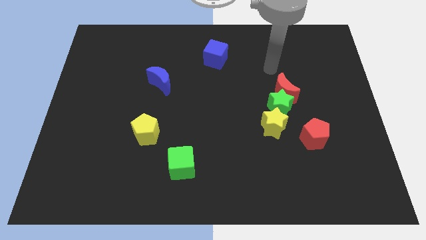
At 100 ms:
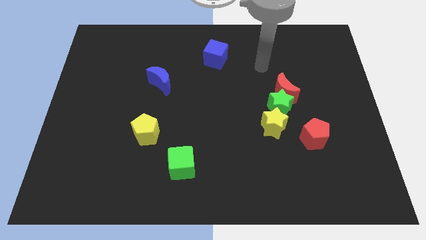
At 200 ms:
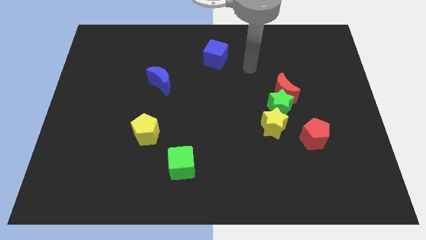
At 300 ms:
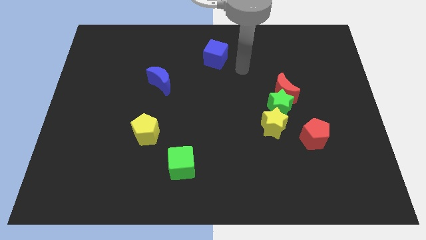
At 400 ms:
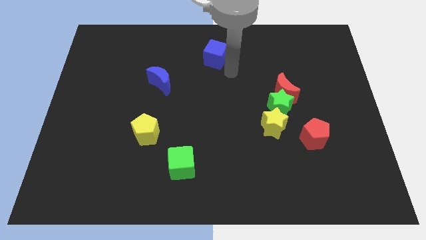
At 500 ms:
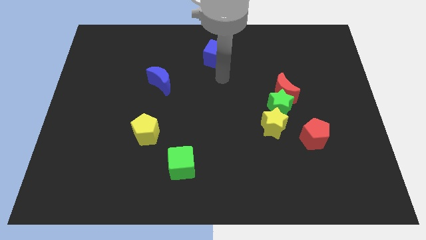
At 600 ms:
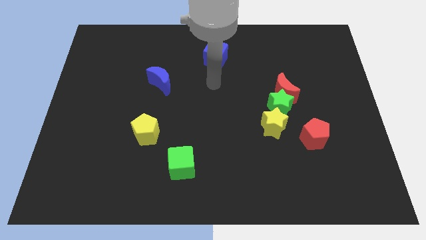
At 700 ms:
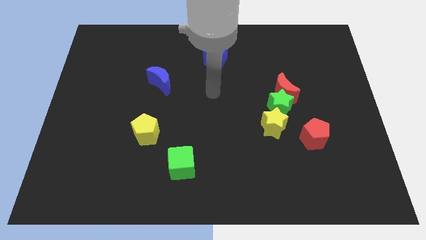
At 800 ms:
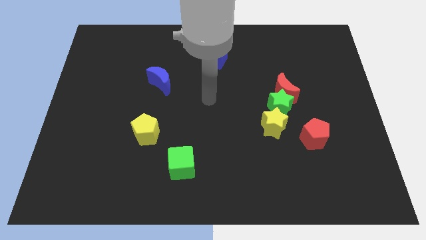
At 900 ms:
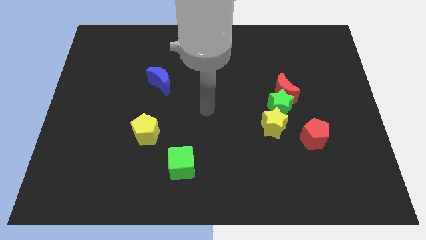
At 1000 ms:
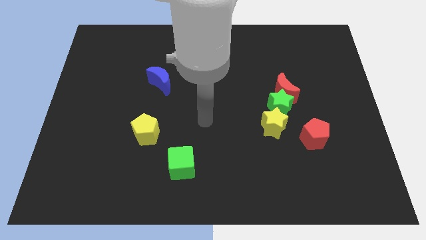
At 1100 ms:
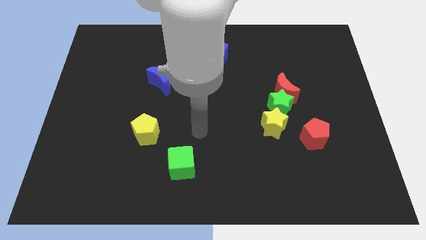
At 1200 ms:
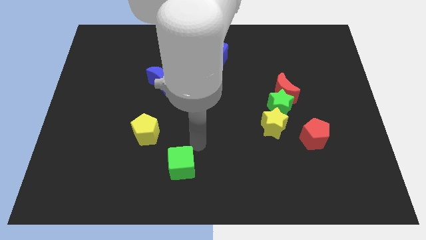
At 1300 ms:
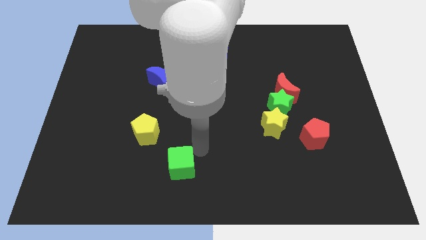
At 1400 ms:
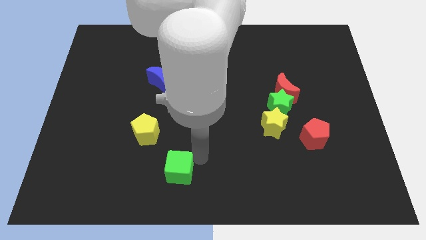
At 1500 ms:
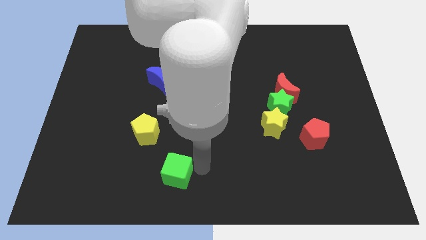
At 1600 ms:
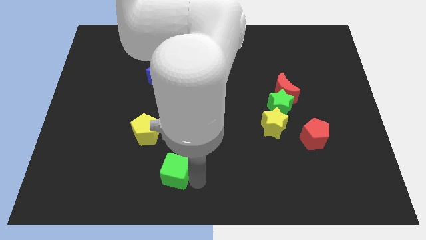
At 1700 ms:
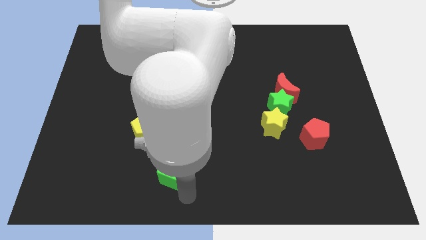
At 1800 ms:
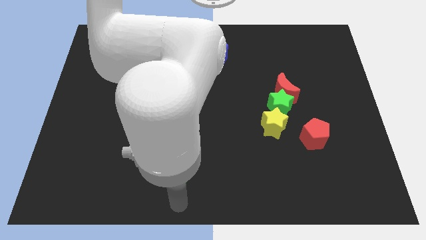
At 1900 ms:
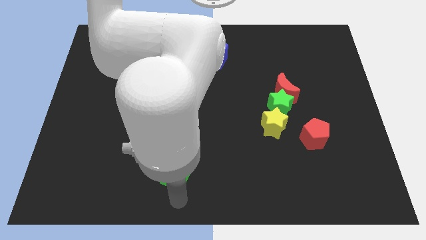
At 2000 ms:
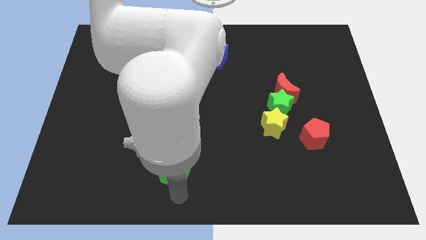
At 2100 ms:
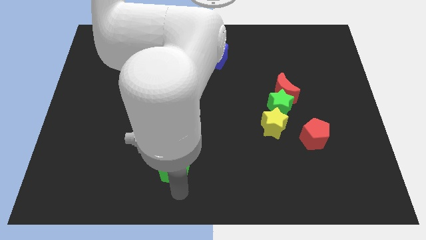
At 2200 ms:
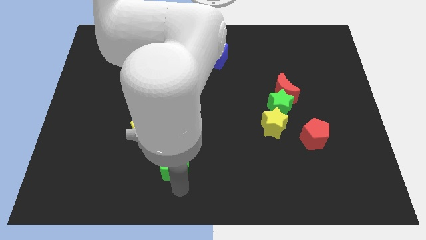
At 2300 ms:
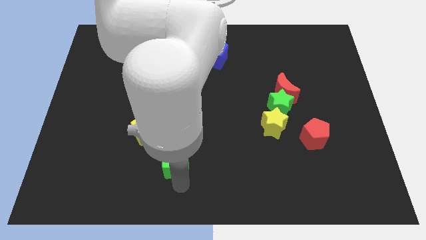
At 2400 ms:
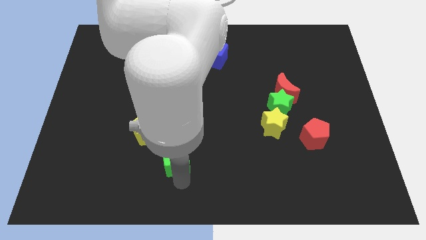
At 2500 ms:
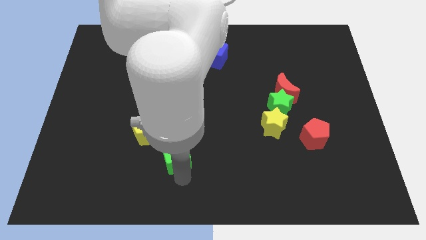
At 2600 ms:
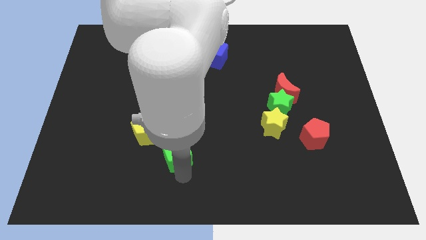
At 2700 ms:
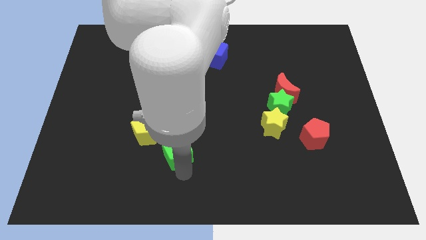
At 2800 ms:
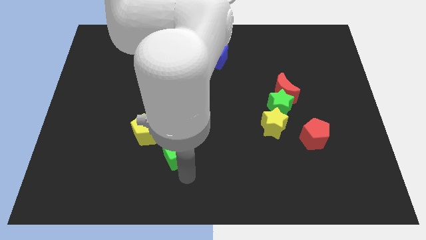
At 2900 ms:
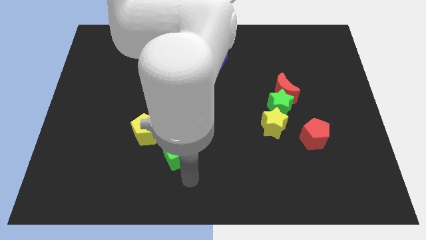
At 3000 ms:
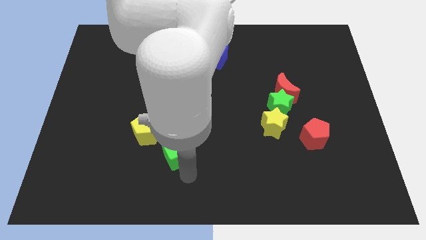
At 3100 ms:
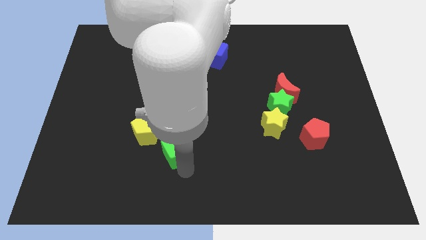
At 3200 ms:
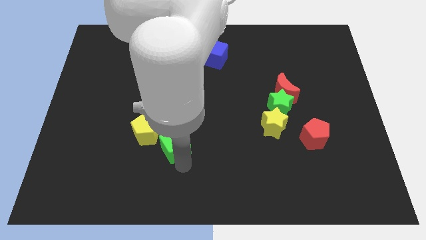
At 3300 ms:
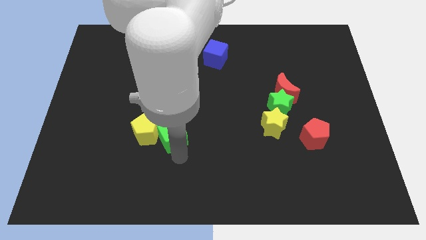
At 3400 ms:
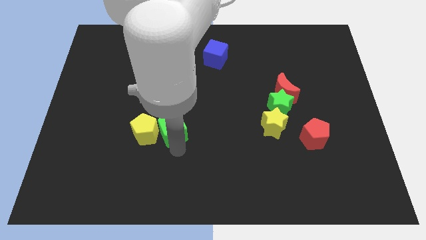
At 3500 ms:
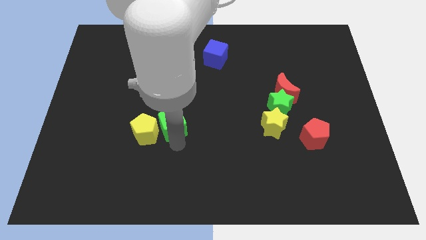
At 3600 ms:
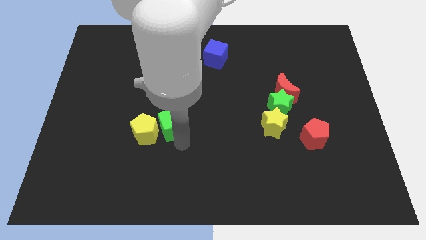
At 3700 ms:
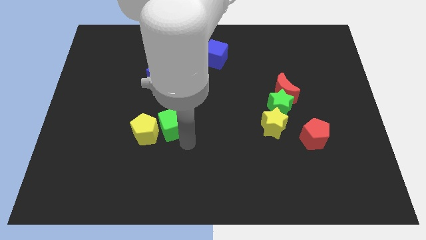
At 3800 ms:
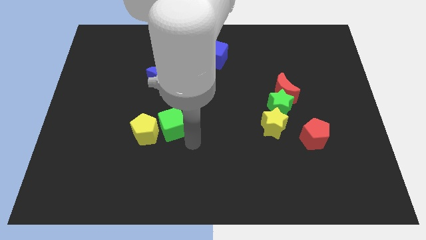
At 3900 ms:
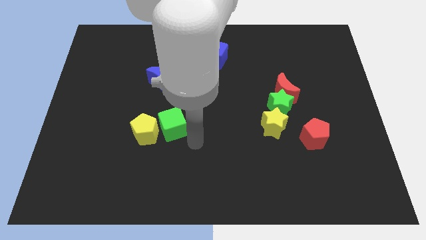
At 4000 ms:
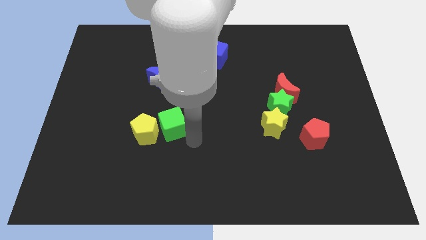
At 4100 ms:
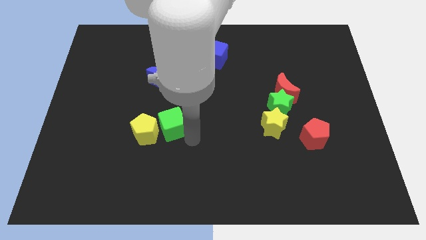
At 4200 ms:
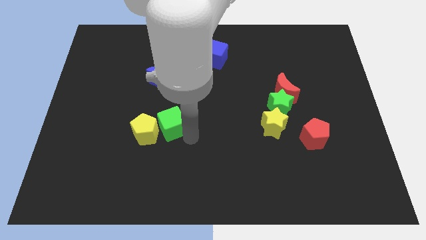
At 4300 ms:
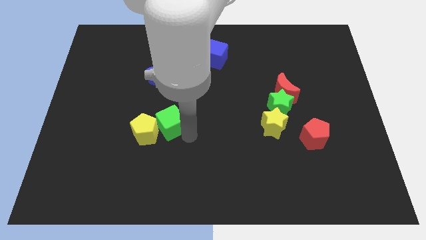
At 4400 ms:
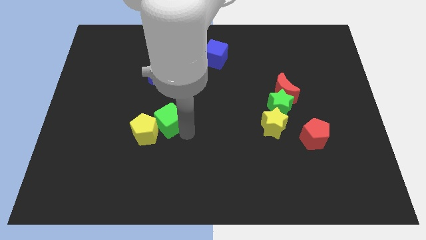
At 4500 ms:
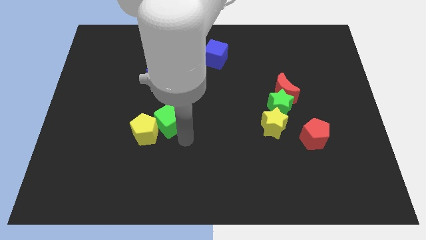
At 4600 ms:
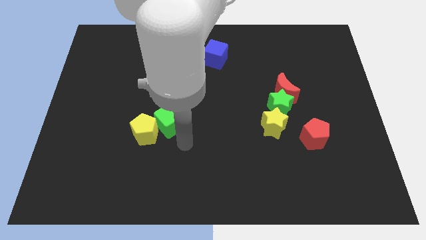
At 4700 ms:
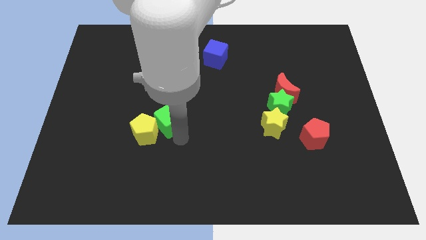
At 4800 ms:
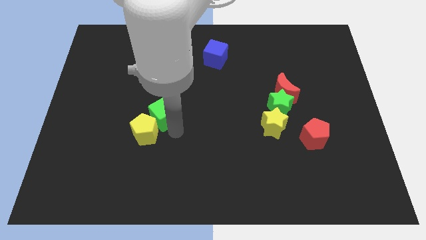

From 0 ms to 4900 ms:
slide the green cube above the yellow pentagon

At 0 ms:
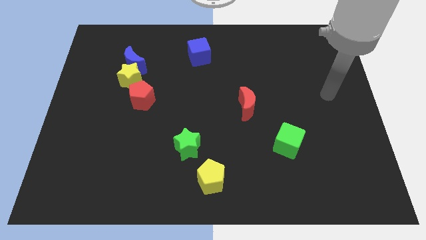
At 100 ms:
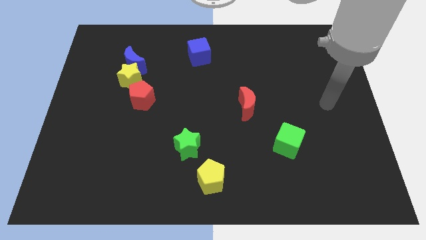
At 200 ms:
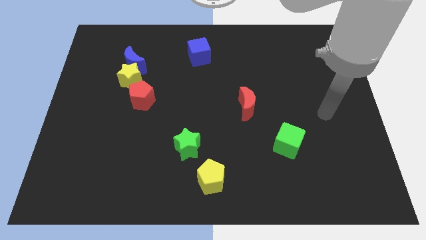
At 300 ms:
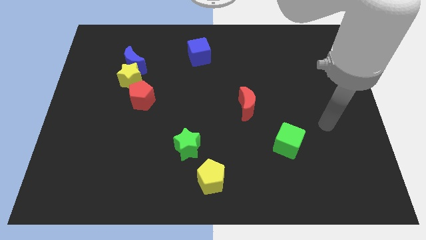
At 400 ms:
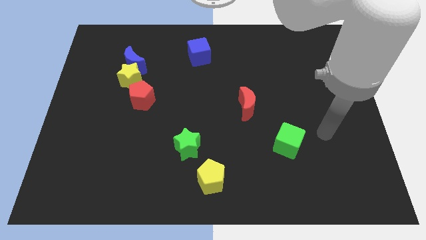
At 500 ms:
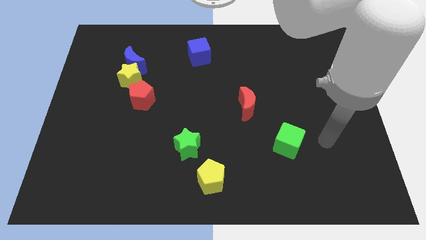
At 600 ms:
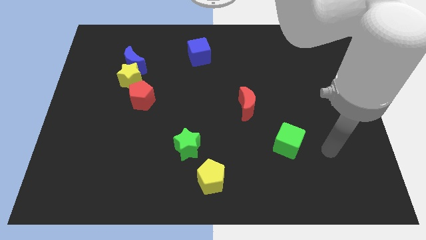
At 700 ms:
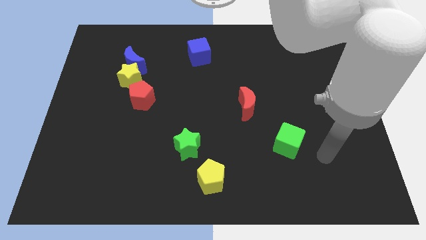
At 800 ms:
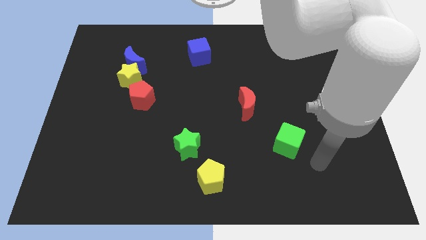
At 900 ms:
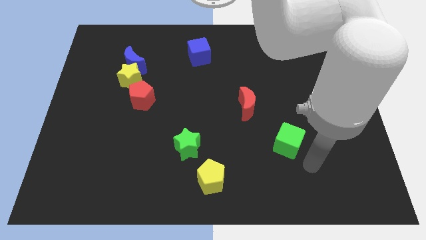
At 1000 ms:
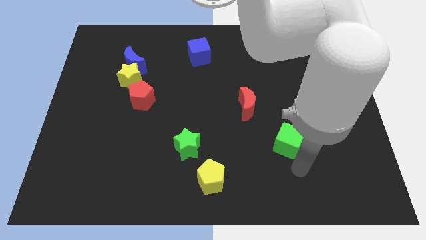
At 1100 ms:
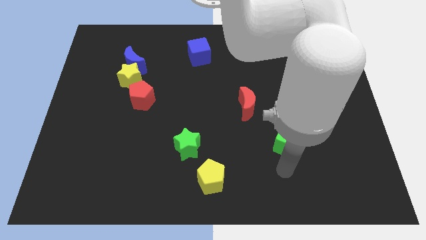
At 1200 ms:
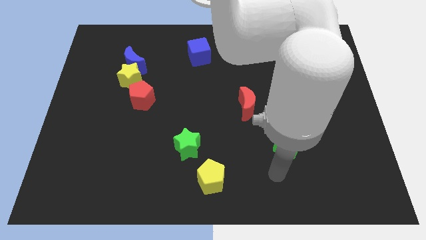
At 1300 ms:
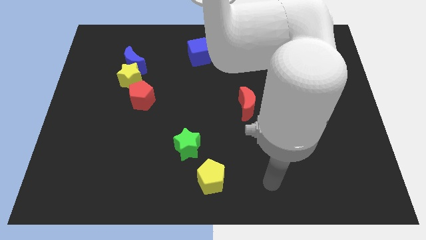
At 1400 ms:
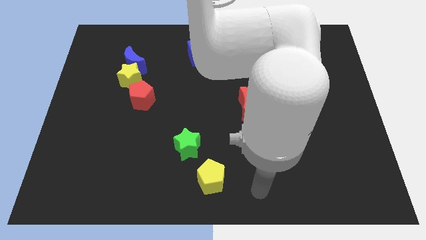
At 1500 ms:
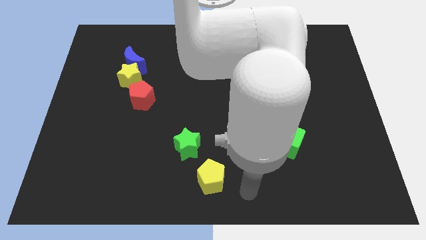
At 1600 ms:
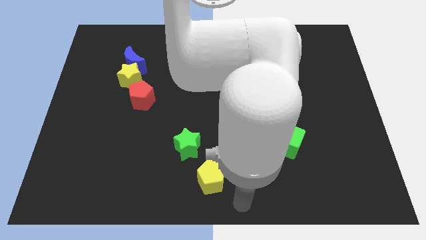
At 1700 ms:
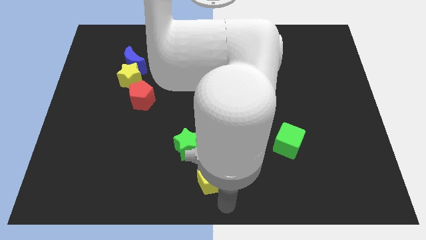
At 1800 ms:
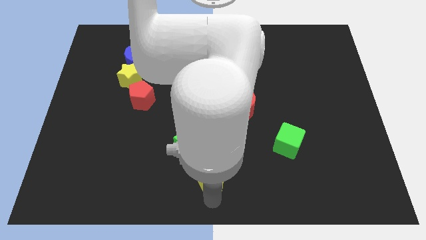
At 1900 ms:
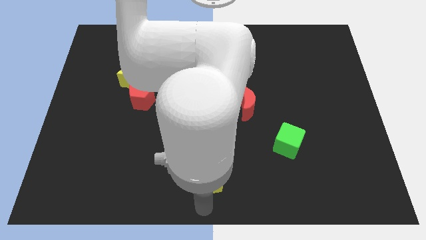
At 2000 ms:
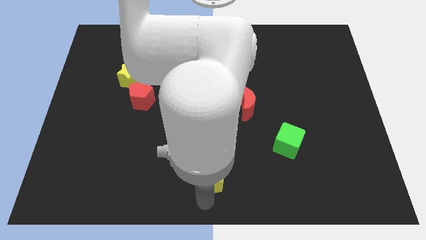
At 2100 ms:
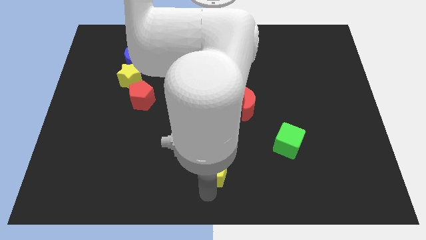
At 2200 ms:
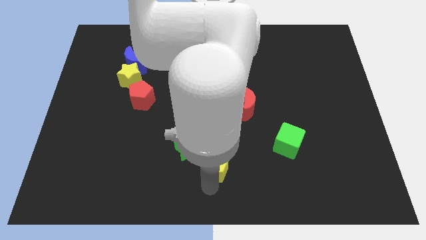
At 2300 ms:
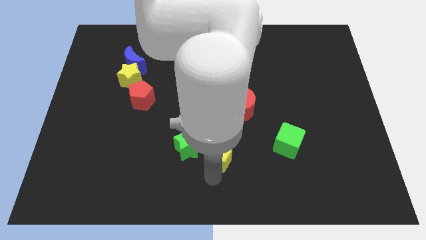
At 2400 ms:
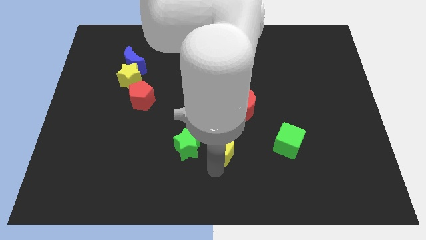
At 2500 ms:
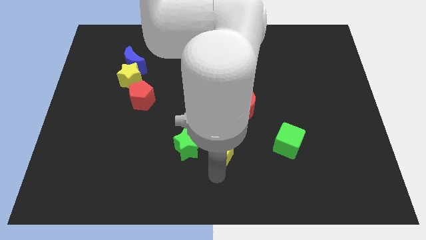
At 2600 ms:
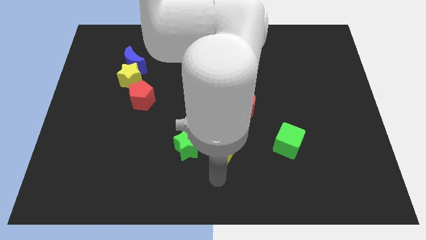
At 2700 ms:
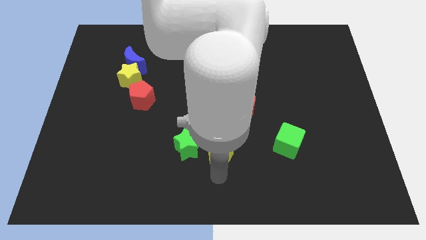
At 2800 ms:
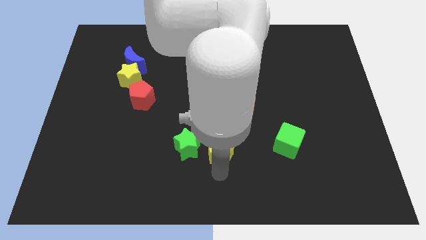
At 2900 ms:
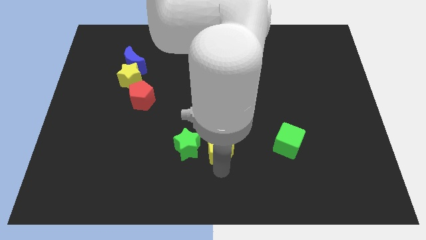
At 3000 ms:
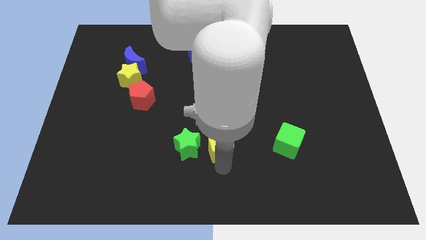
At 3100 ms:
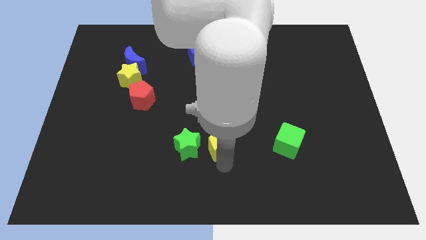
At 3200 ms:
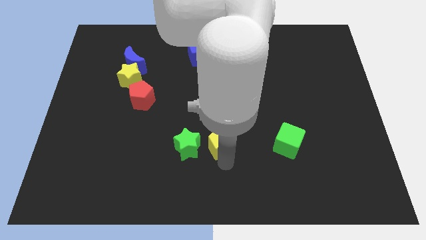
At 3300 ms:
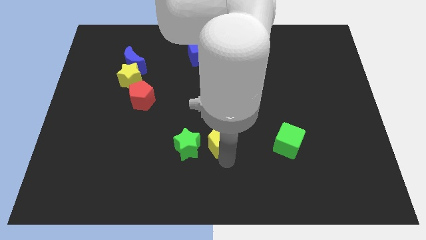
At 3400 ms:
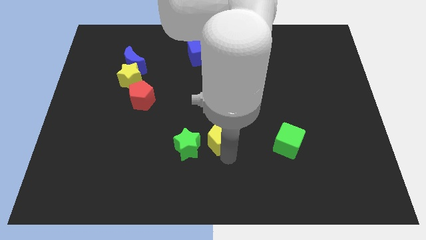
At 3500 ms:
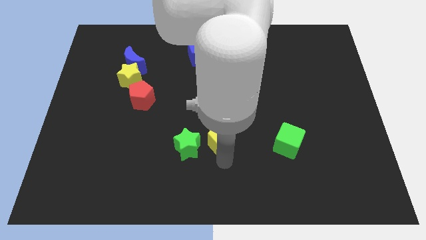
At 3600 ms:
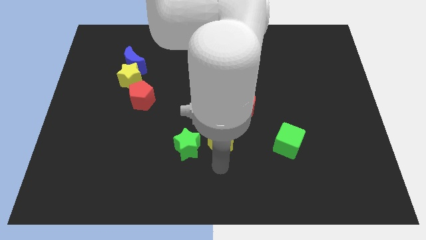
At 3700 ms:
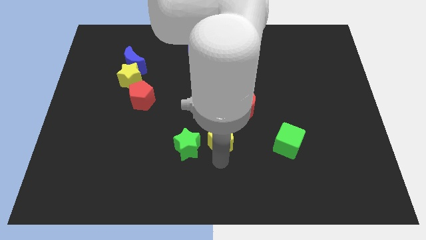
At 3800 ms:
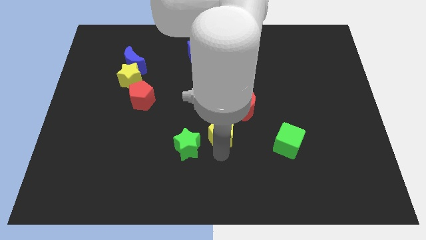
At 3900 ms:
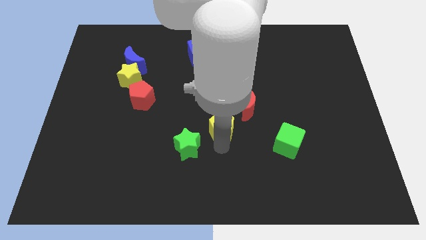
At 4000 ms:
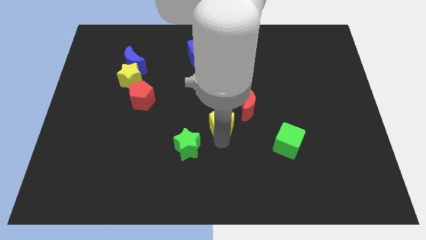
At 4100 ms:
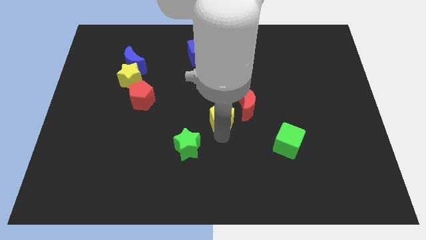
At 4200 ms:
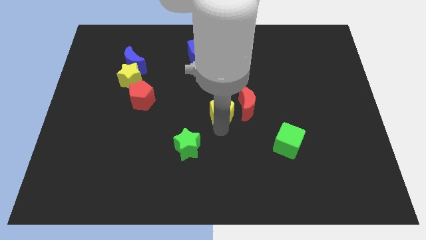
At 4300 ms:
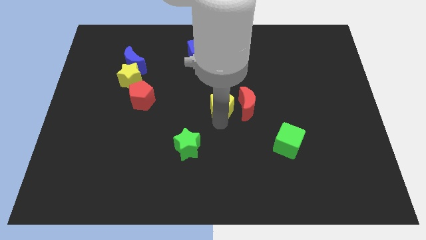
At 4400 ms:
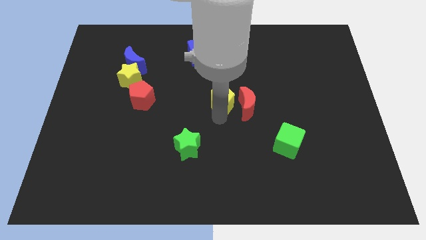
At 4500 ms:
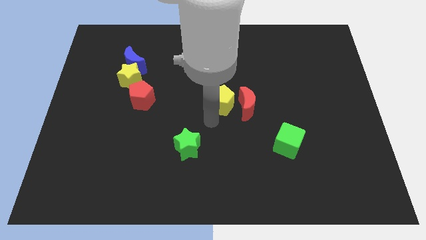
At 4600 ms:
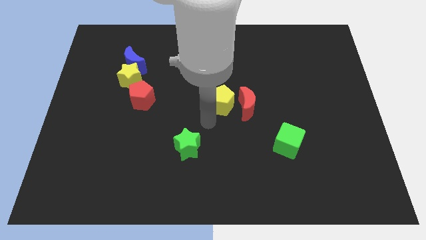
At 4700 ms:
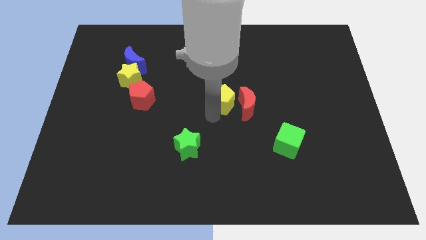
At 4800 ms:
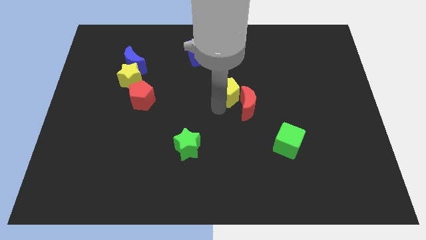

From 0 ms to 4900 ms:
push the yellow pentagon above the red moon
